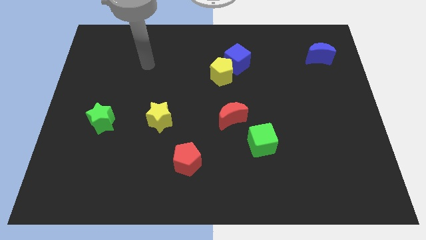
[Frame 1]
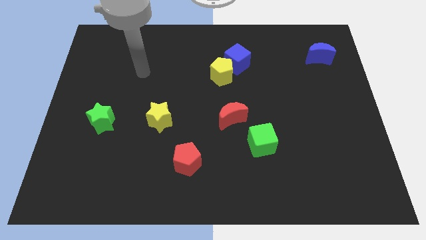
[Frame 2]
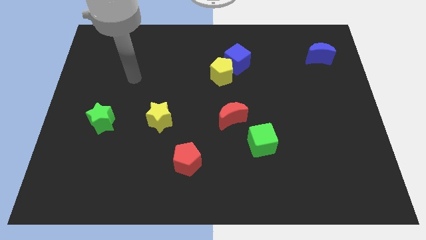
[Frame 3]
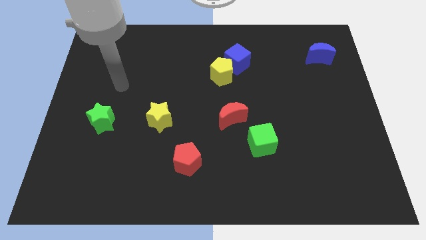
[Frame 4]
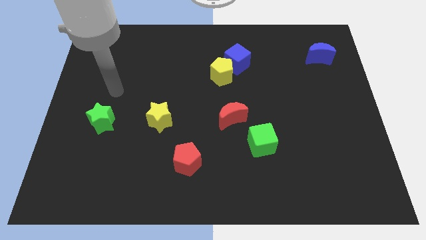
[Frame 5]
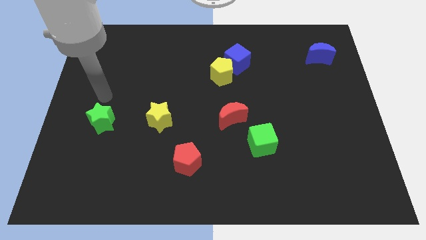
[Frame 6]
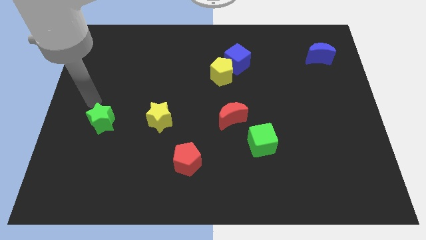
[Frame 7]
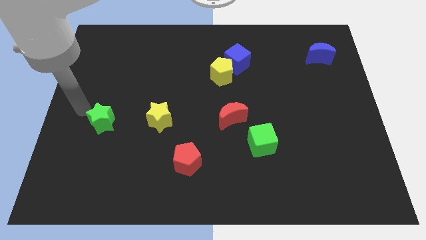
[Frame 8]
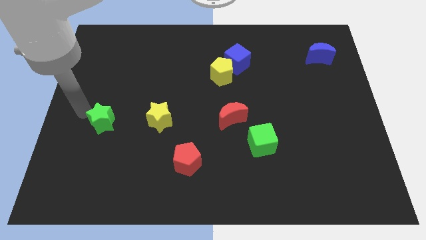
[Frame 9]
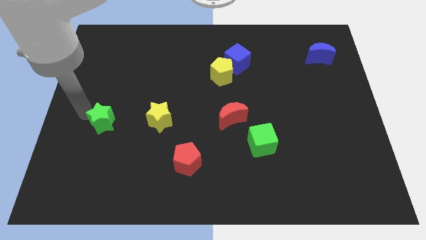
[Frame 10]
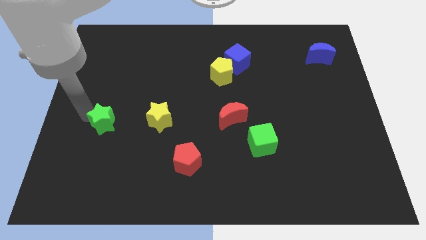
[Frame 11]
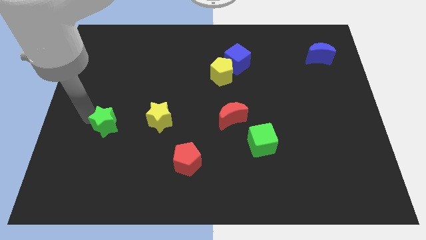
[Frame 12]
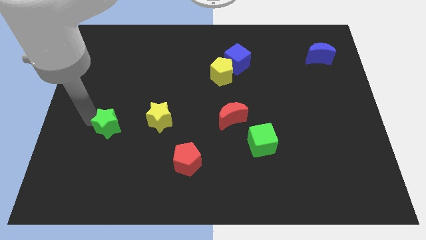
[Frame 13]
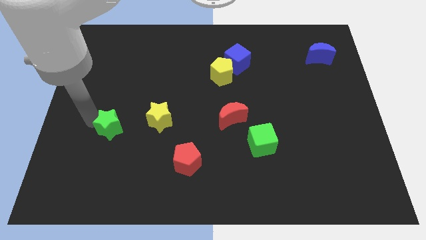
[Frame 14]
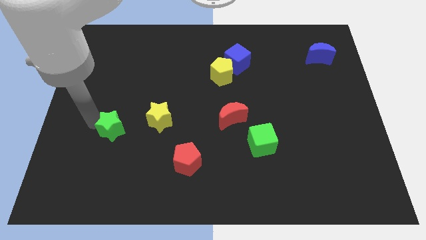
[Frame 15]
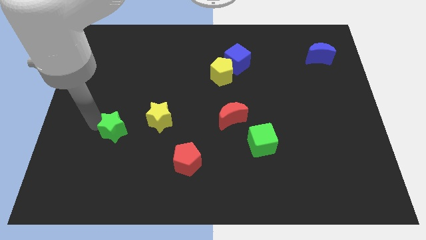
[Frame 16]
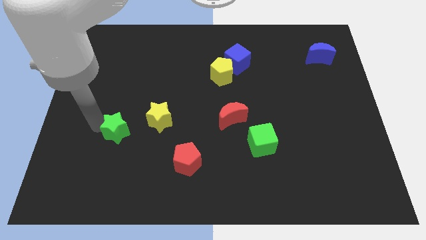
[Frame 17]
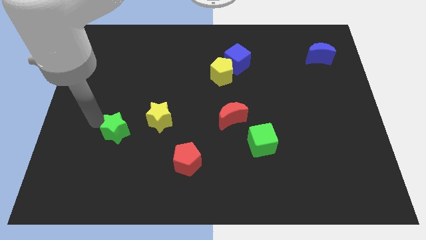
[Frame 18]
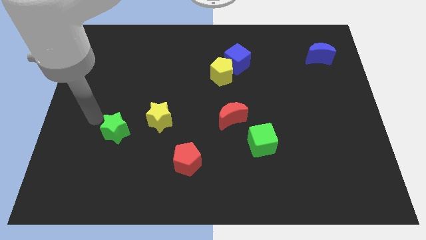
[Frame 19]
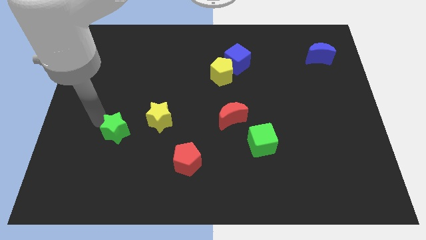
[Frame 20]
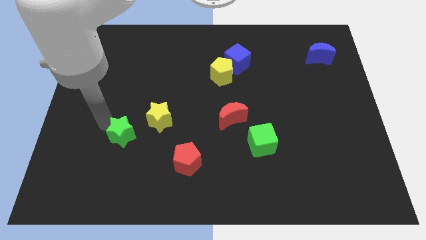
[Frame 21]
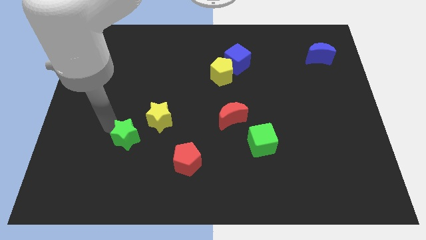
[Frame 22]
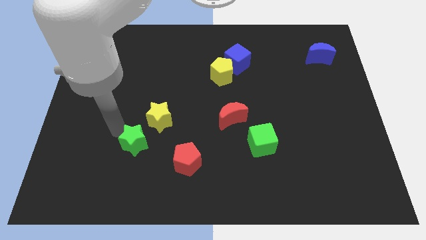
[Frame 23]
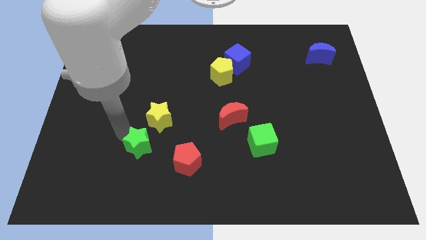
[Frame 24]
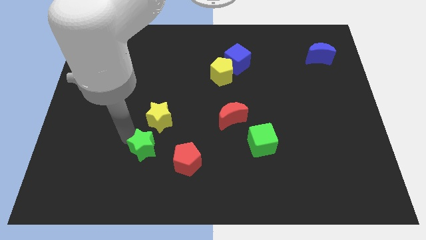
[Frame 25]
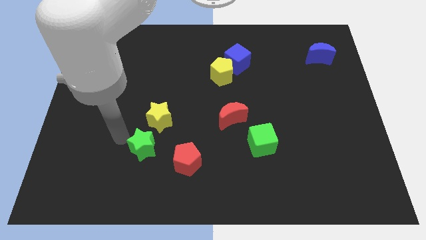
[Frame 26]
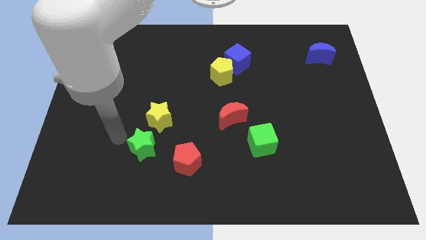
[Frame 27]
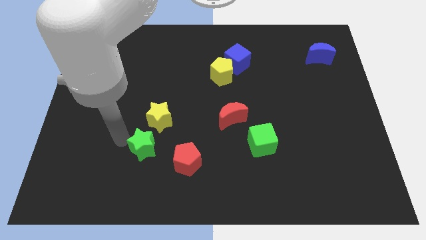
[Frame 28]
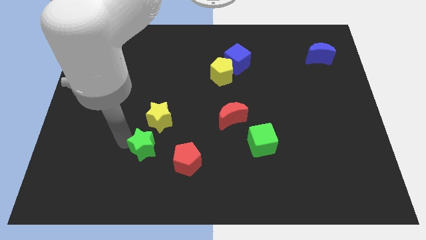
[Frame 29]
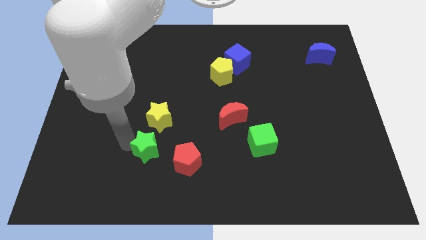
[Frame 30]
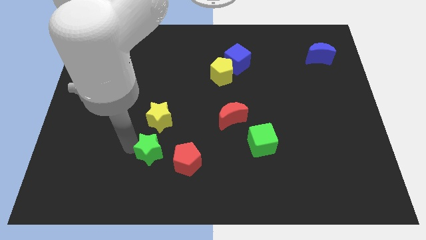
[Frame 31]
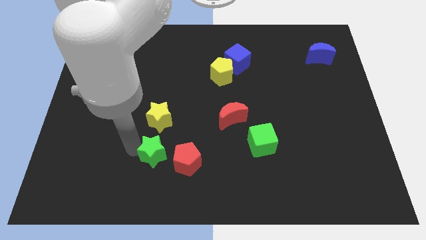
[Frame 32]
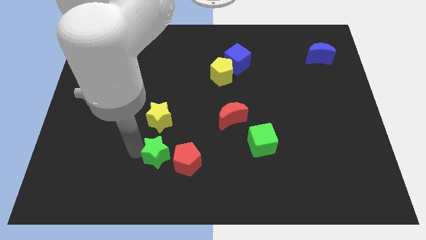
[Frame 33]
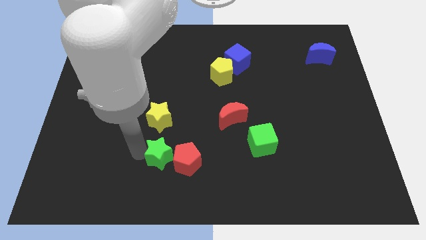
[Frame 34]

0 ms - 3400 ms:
slide the green star close to the red pentagon

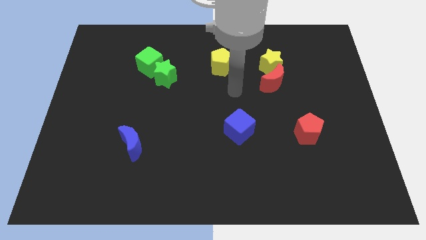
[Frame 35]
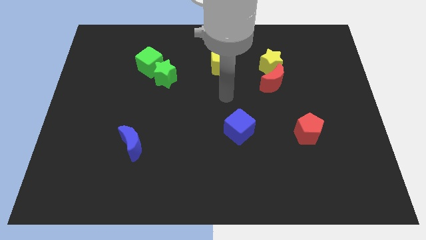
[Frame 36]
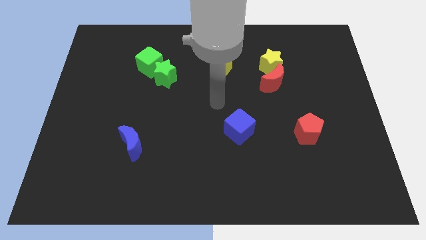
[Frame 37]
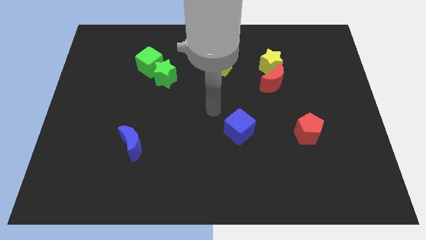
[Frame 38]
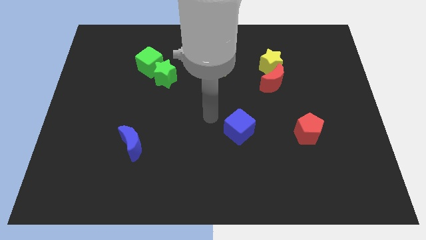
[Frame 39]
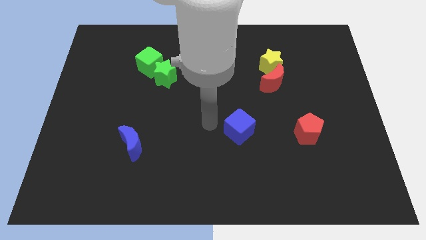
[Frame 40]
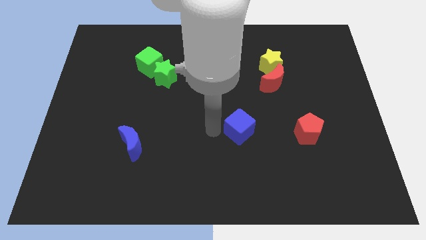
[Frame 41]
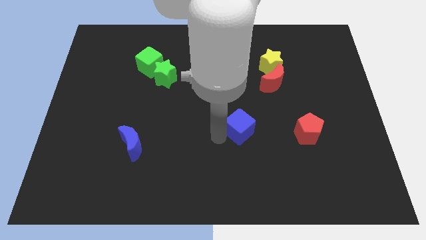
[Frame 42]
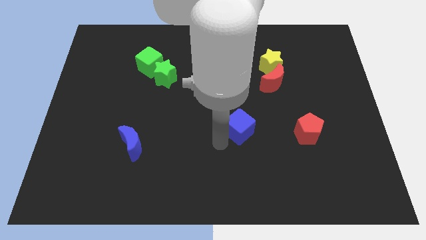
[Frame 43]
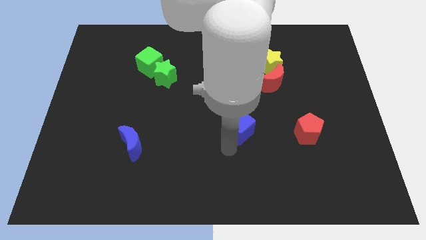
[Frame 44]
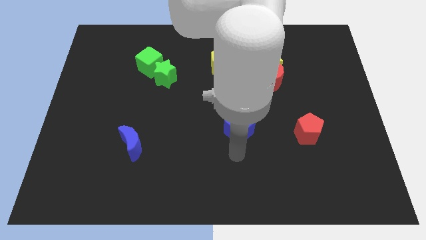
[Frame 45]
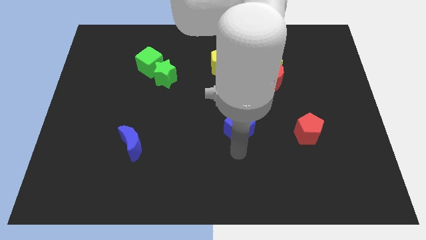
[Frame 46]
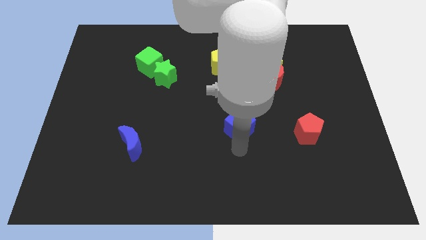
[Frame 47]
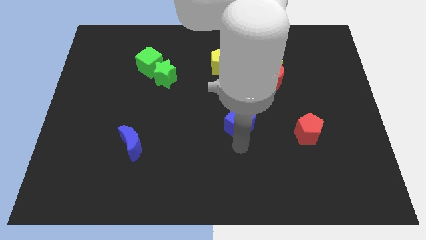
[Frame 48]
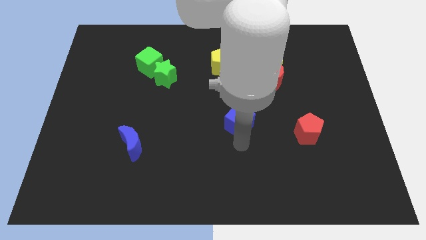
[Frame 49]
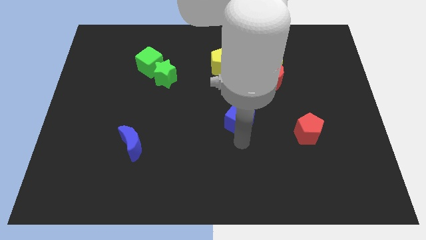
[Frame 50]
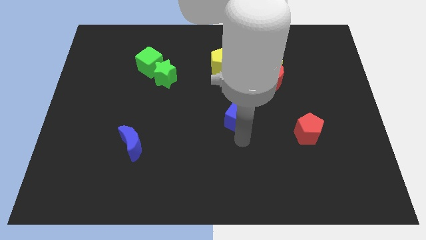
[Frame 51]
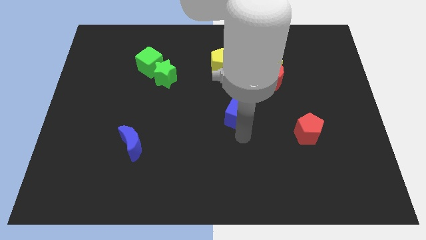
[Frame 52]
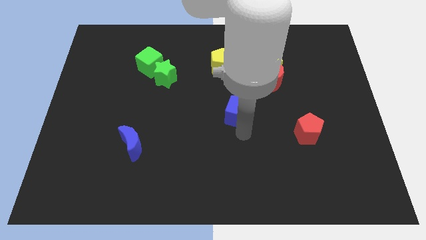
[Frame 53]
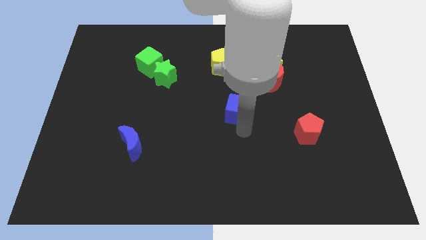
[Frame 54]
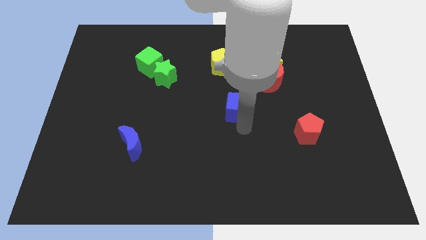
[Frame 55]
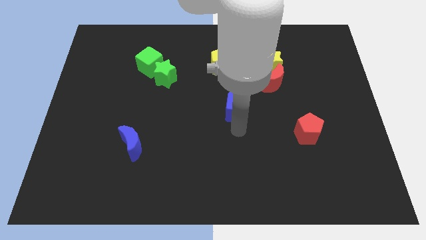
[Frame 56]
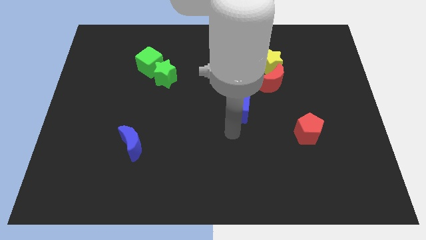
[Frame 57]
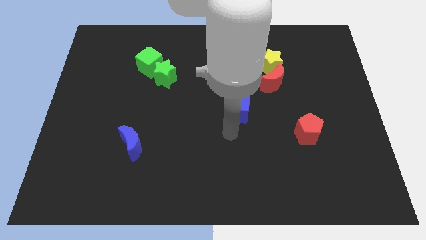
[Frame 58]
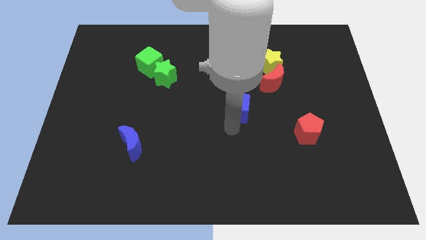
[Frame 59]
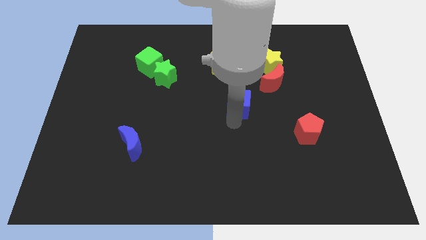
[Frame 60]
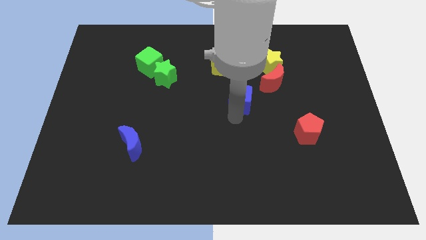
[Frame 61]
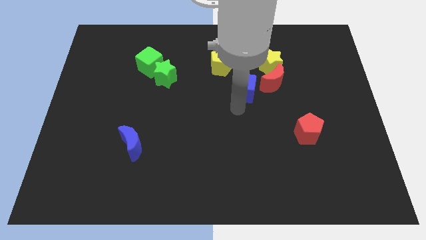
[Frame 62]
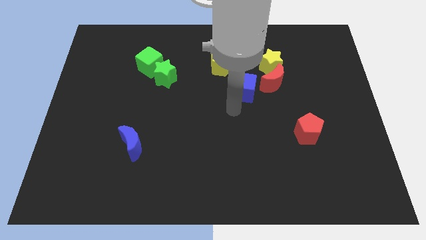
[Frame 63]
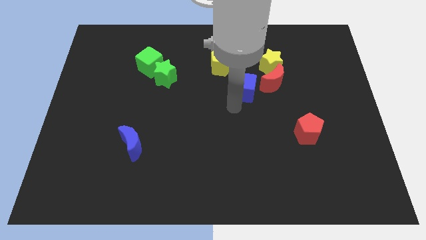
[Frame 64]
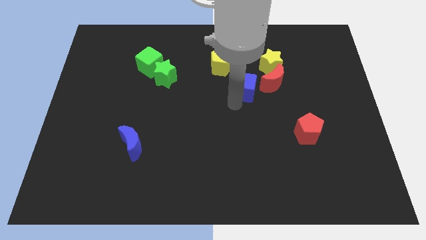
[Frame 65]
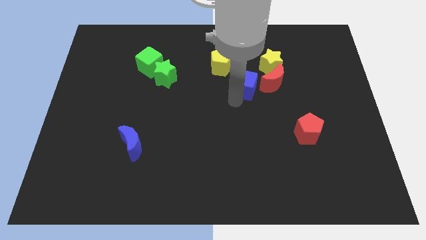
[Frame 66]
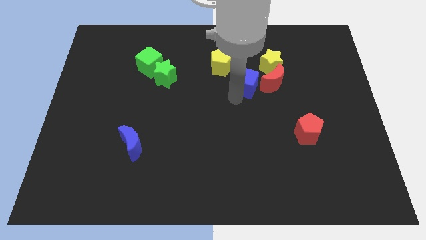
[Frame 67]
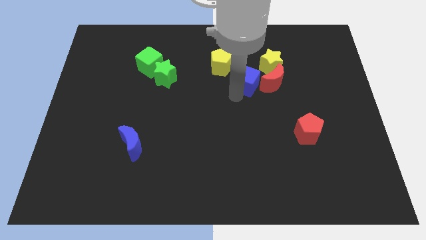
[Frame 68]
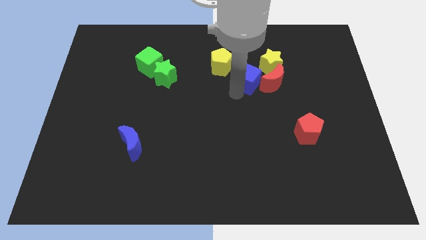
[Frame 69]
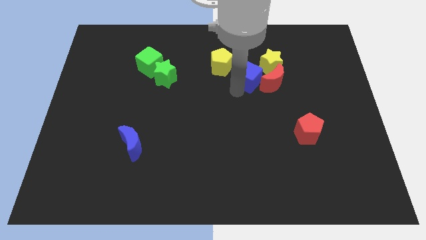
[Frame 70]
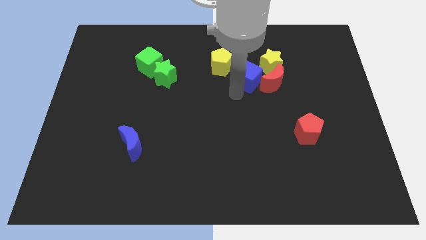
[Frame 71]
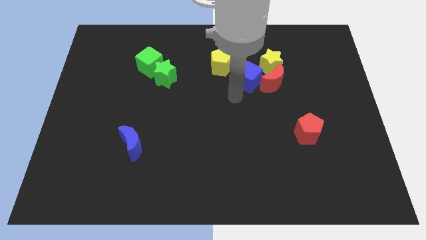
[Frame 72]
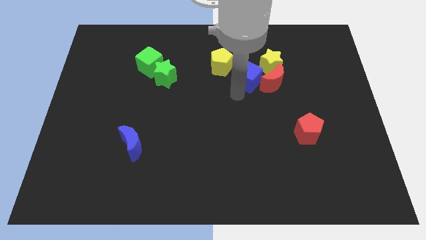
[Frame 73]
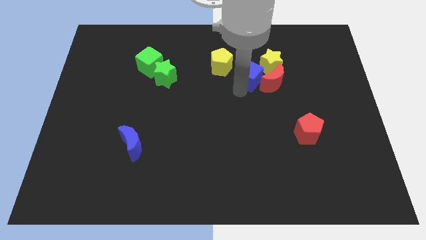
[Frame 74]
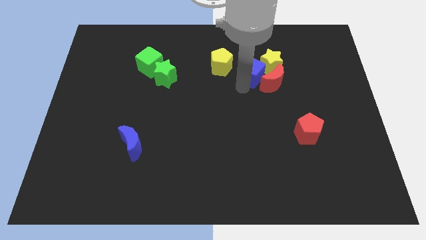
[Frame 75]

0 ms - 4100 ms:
push the blue cube towards the yellow star
